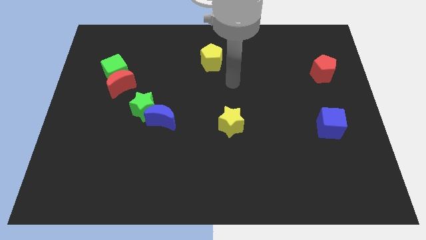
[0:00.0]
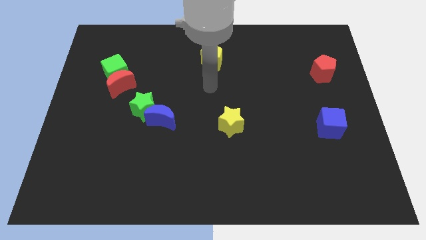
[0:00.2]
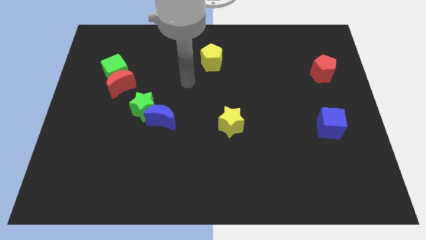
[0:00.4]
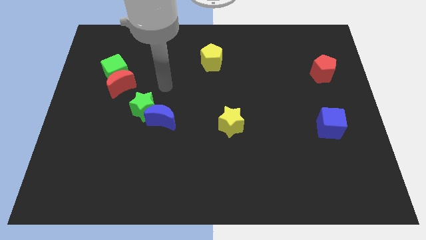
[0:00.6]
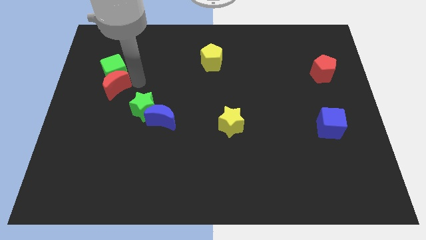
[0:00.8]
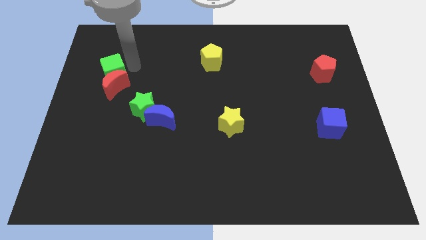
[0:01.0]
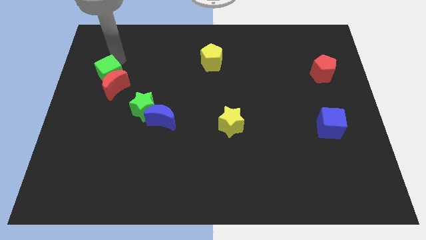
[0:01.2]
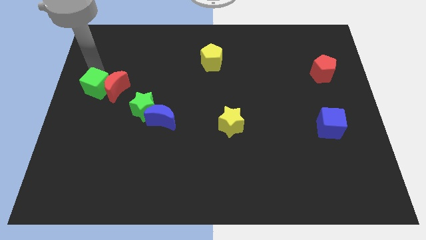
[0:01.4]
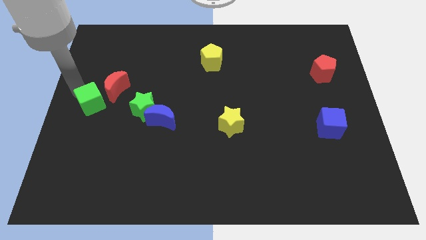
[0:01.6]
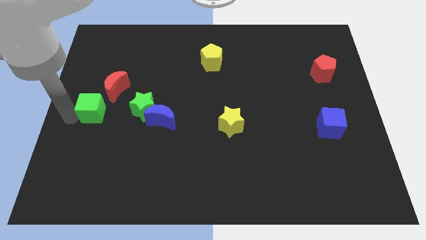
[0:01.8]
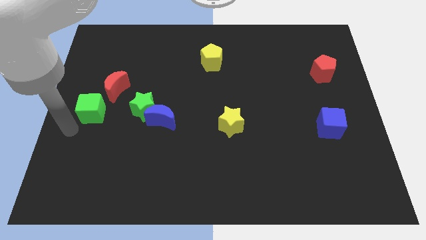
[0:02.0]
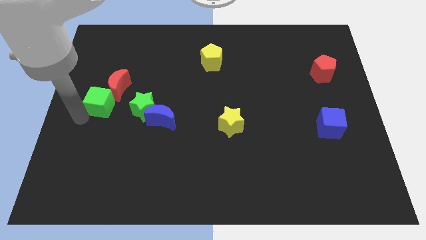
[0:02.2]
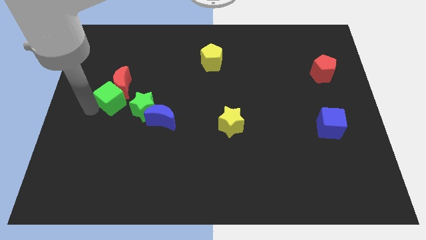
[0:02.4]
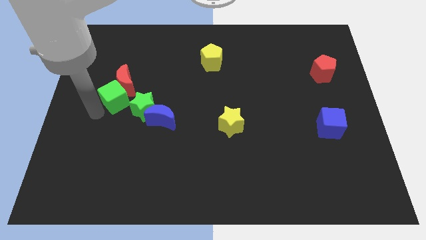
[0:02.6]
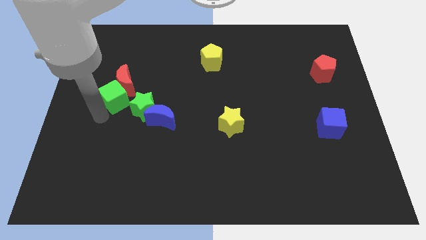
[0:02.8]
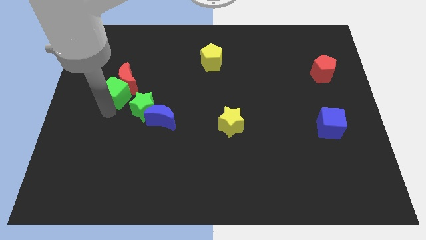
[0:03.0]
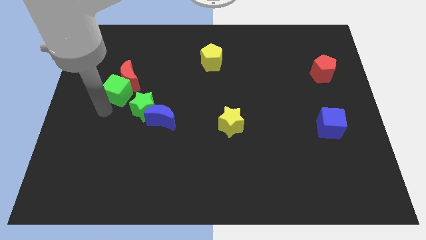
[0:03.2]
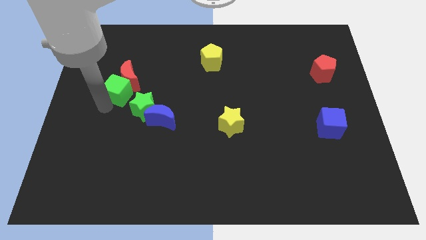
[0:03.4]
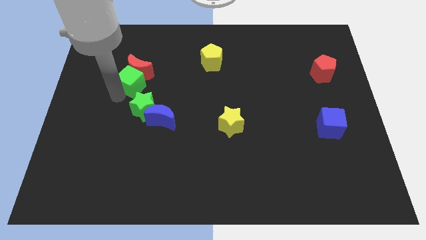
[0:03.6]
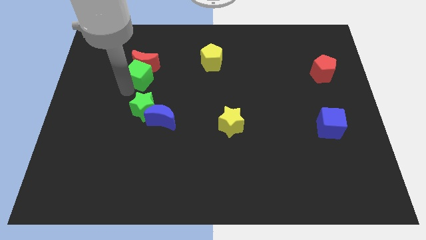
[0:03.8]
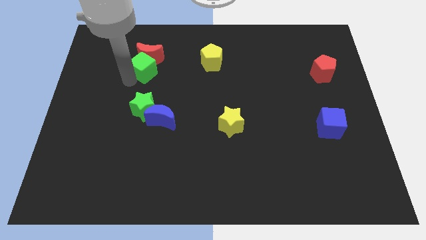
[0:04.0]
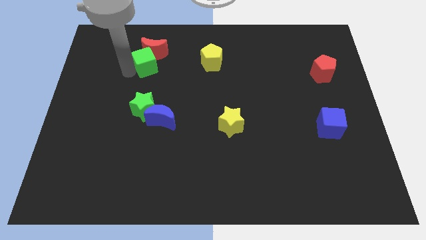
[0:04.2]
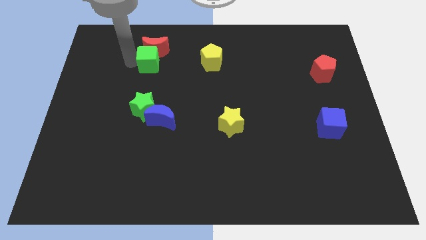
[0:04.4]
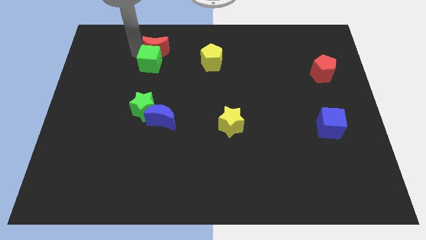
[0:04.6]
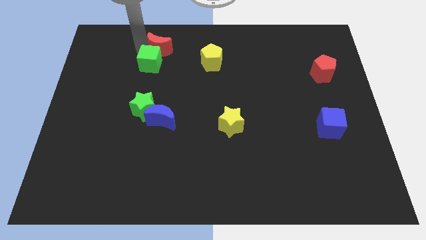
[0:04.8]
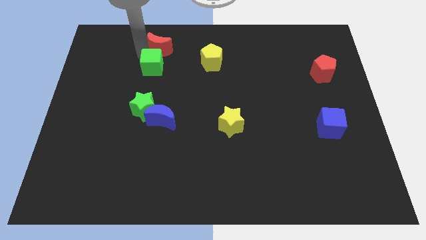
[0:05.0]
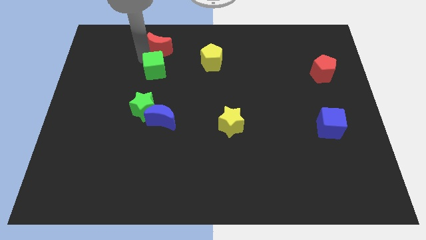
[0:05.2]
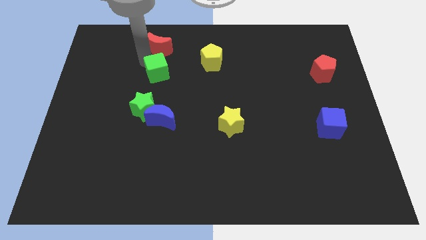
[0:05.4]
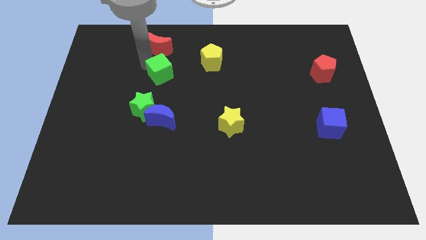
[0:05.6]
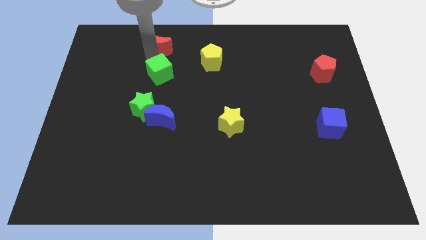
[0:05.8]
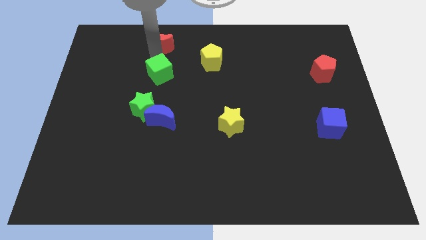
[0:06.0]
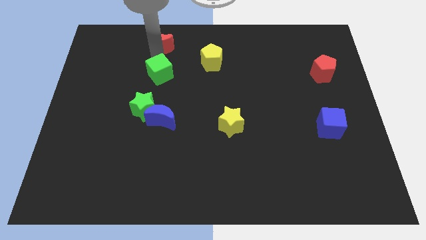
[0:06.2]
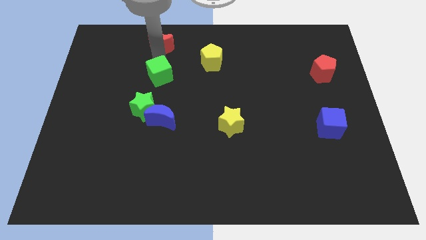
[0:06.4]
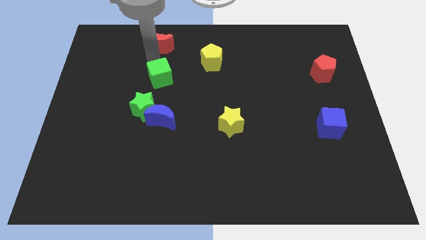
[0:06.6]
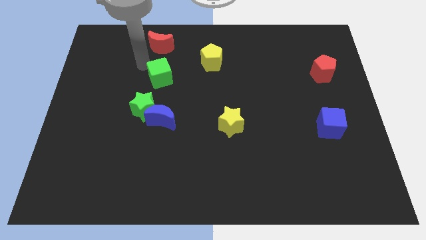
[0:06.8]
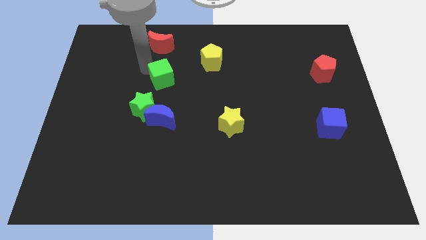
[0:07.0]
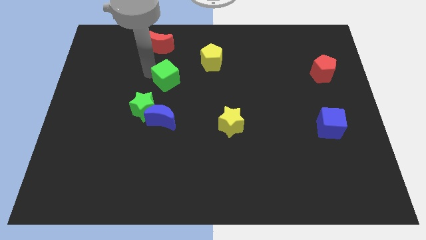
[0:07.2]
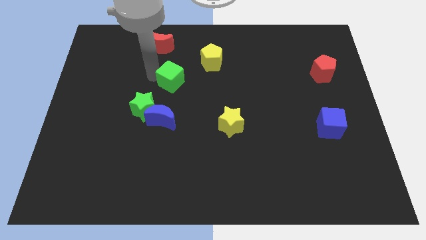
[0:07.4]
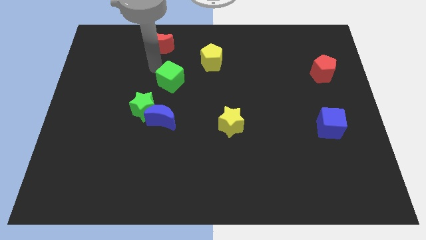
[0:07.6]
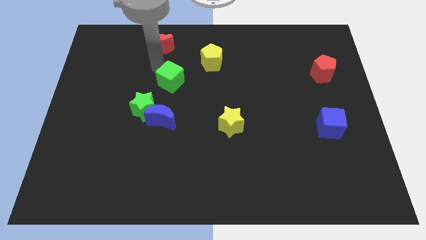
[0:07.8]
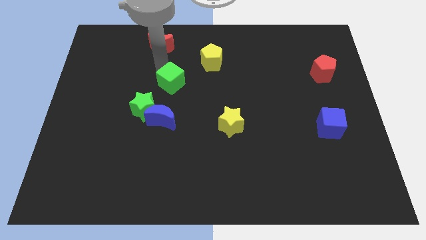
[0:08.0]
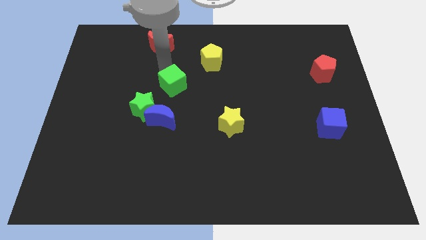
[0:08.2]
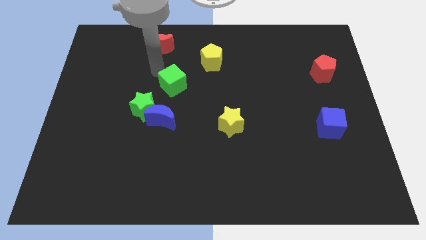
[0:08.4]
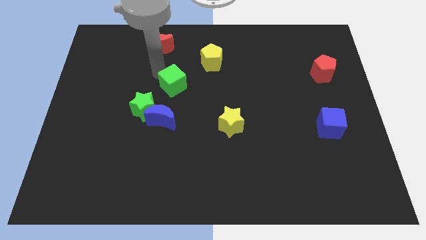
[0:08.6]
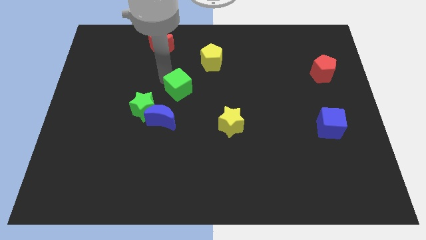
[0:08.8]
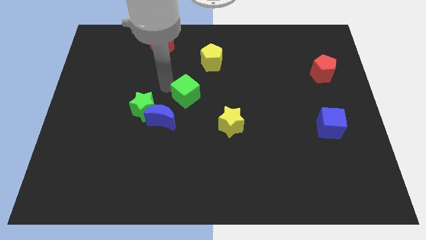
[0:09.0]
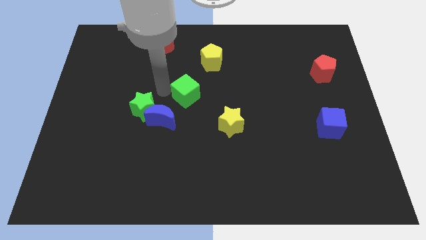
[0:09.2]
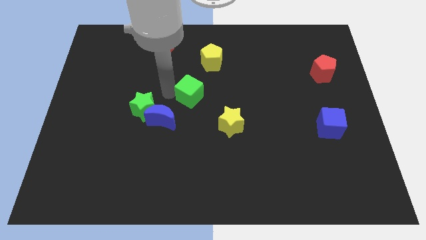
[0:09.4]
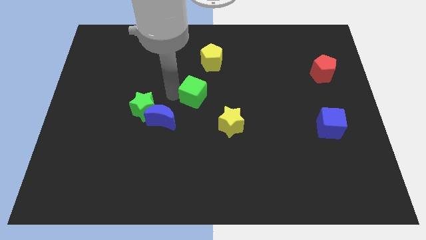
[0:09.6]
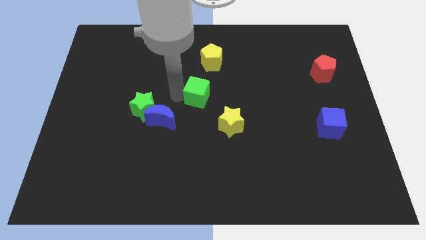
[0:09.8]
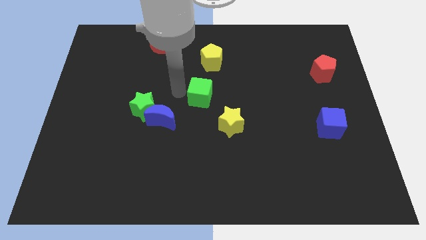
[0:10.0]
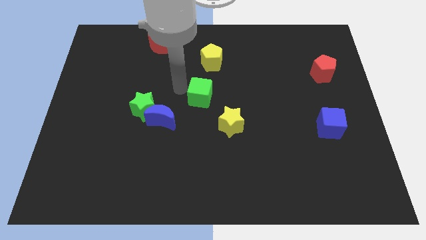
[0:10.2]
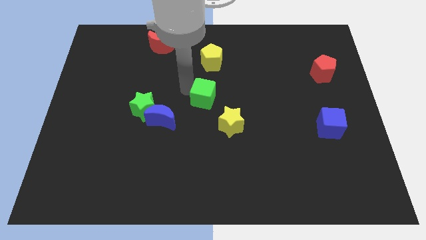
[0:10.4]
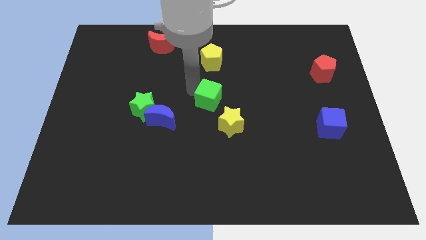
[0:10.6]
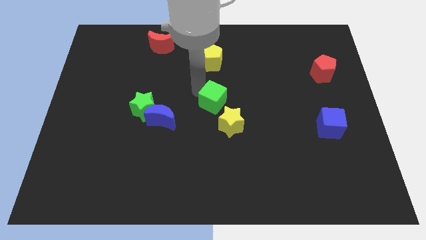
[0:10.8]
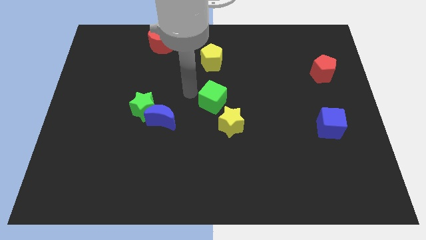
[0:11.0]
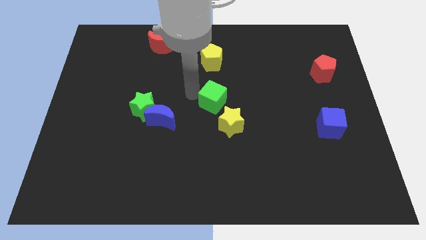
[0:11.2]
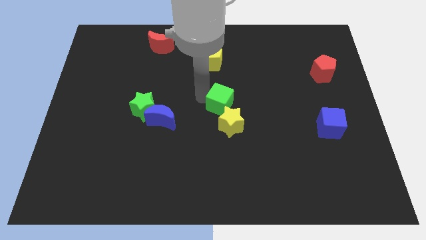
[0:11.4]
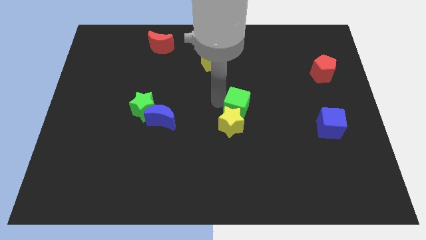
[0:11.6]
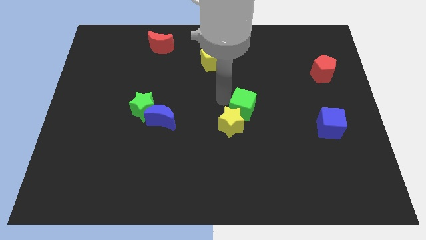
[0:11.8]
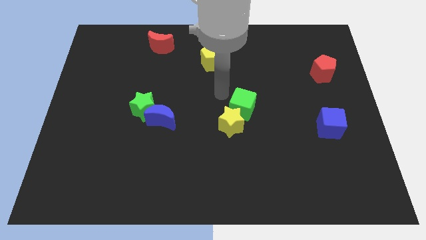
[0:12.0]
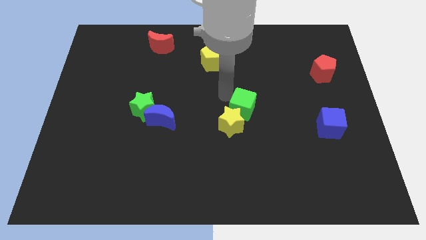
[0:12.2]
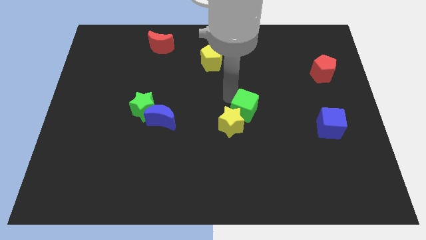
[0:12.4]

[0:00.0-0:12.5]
slide the green cube to the right of the yellow star

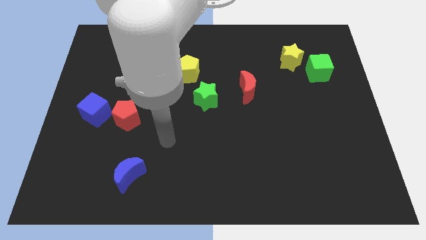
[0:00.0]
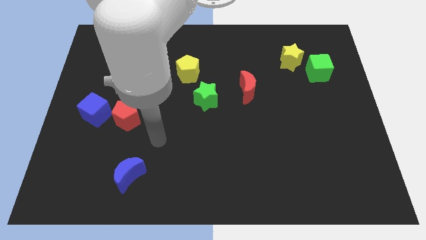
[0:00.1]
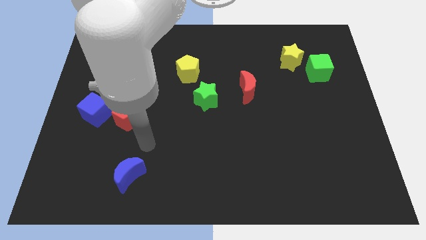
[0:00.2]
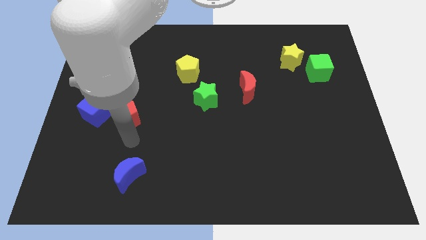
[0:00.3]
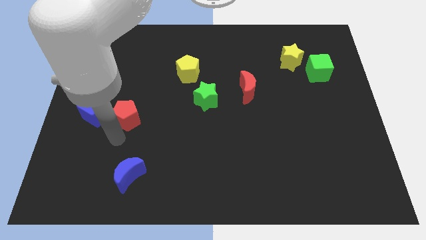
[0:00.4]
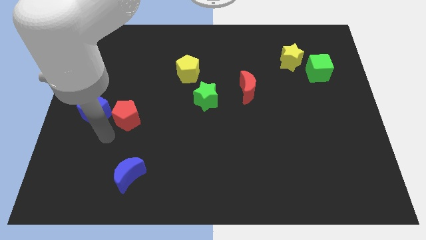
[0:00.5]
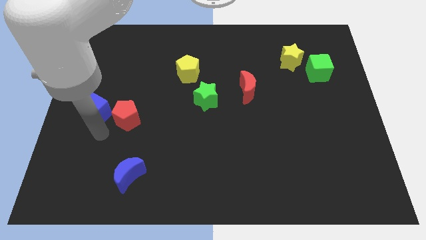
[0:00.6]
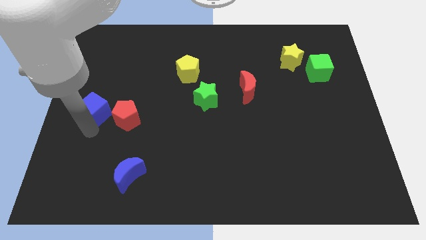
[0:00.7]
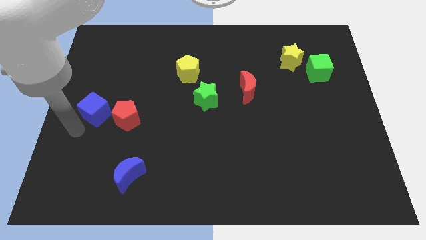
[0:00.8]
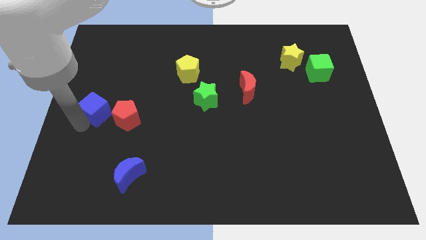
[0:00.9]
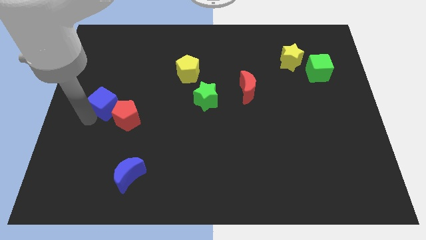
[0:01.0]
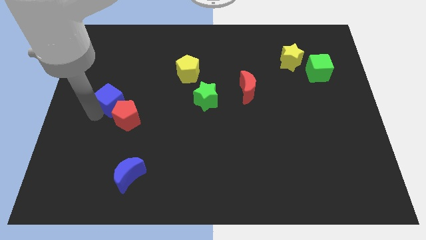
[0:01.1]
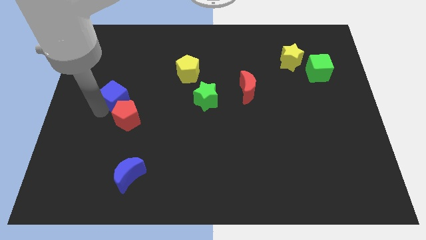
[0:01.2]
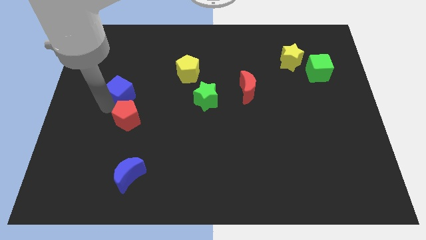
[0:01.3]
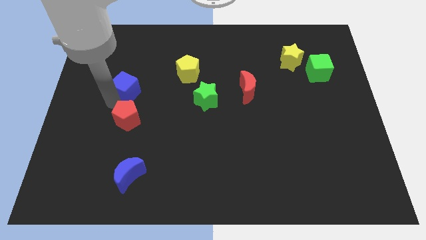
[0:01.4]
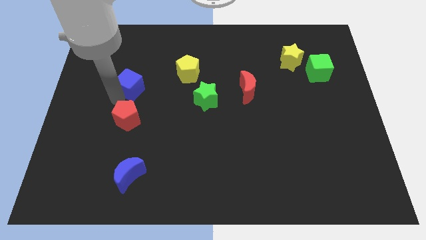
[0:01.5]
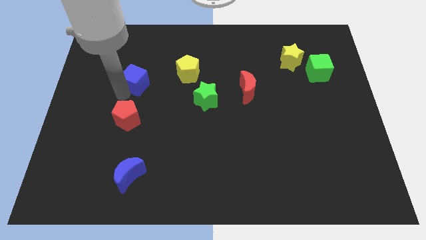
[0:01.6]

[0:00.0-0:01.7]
push the blue cube left of the yellow pentagon
